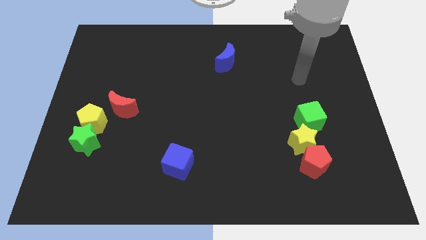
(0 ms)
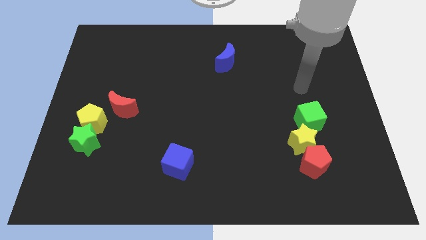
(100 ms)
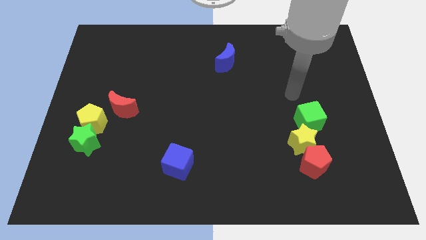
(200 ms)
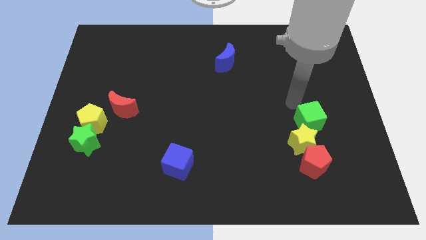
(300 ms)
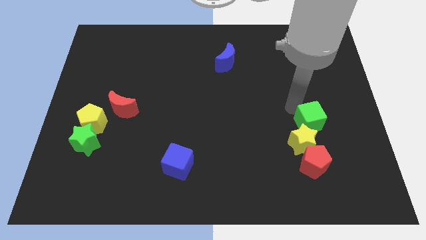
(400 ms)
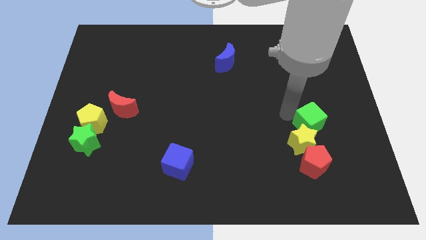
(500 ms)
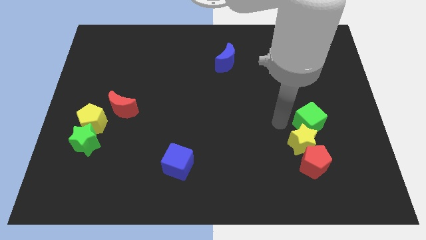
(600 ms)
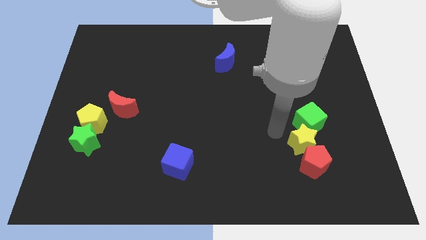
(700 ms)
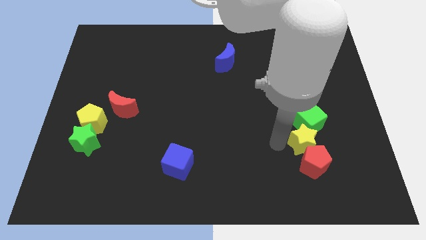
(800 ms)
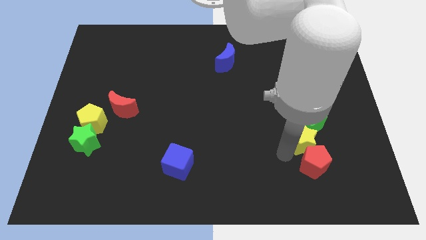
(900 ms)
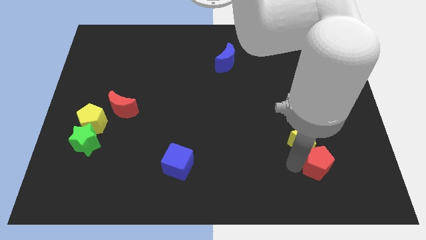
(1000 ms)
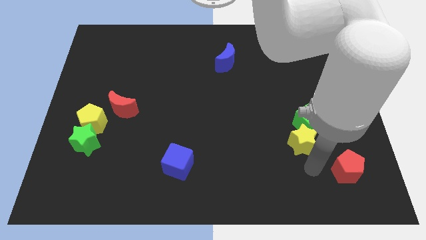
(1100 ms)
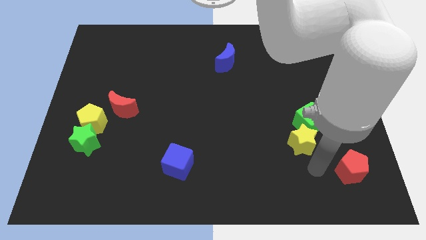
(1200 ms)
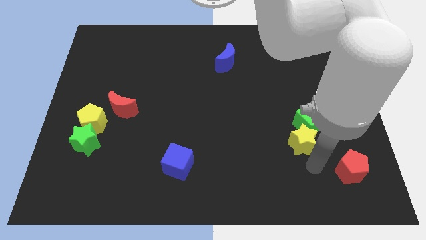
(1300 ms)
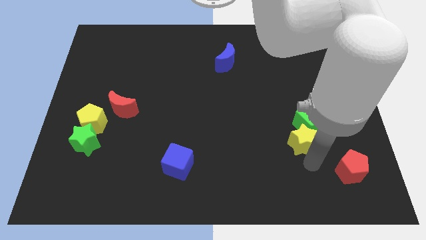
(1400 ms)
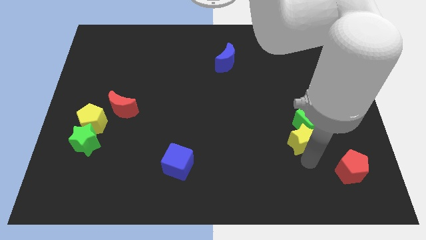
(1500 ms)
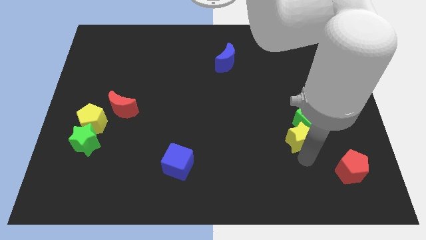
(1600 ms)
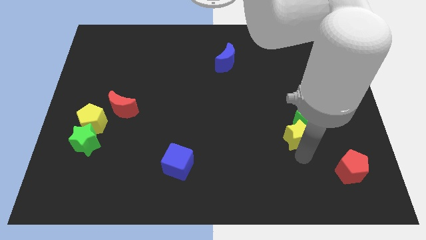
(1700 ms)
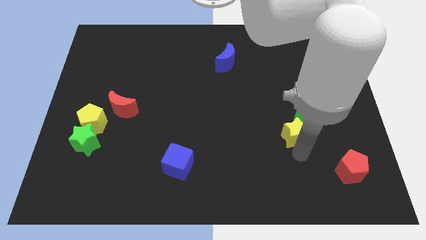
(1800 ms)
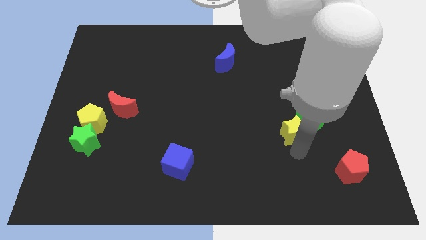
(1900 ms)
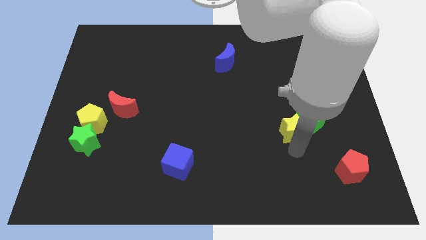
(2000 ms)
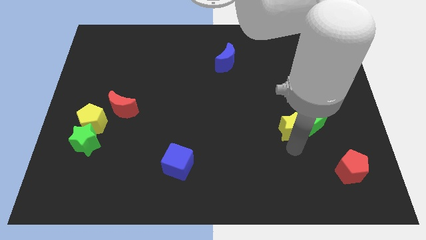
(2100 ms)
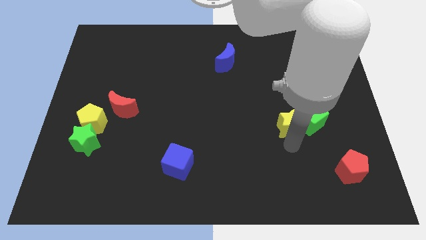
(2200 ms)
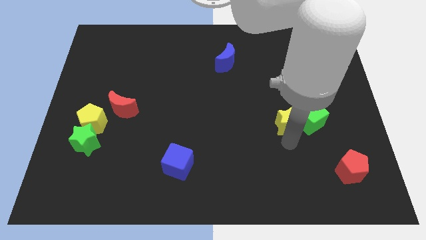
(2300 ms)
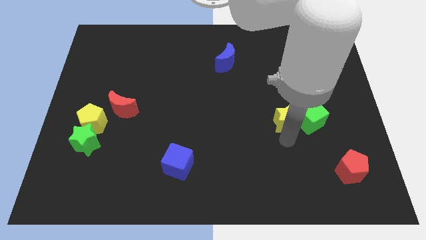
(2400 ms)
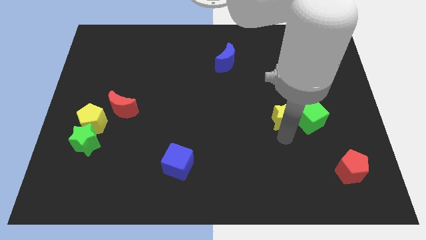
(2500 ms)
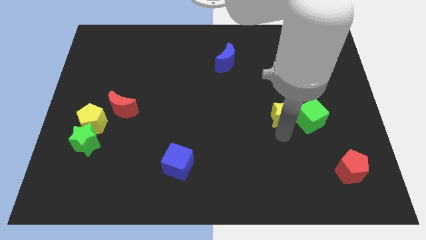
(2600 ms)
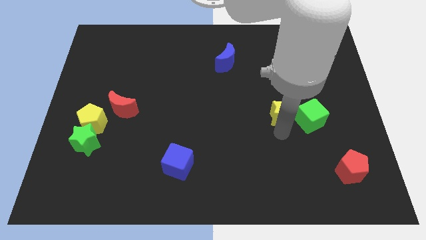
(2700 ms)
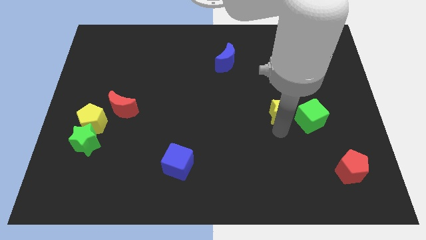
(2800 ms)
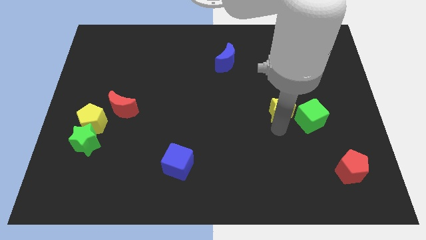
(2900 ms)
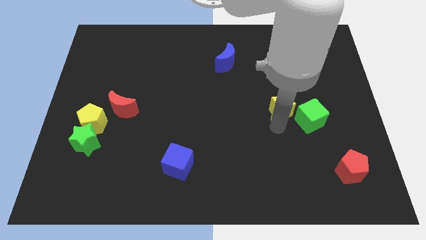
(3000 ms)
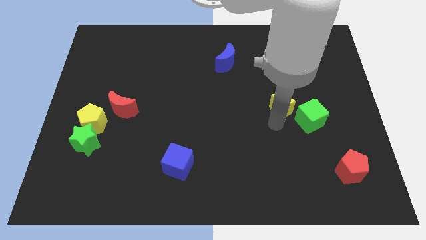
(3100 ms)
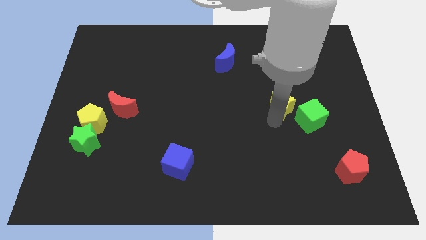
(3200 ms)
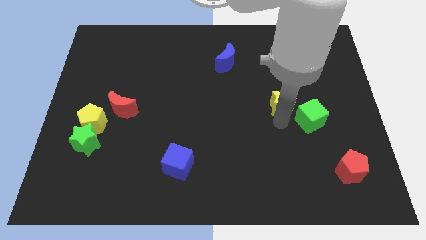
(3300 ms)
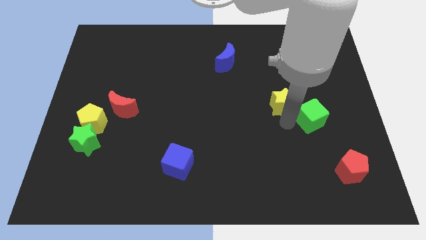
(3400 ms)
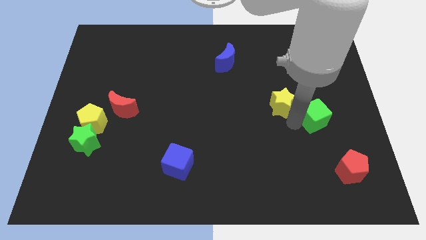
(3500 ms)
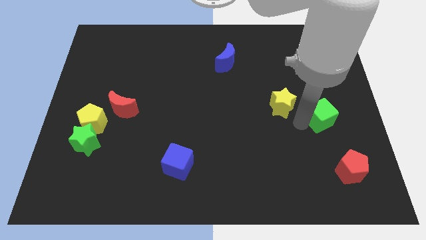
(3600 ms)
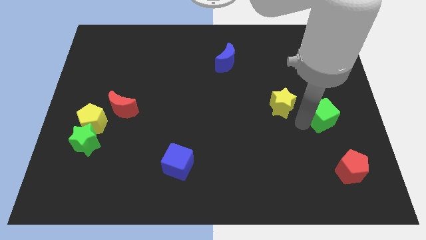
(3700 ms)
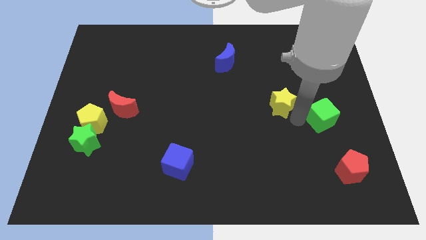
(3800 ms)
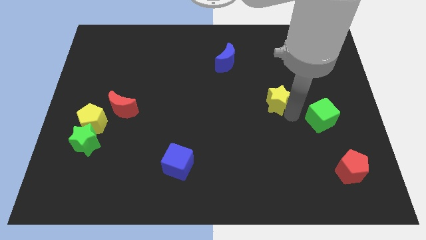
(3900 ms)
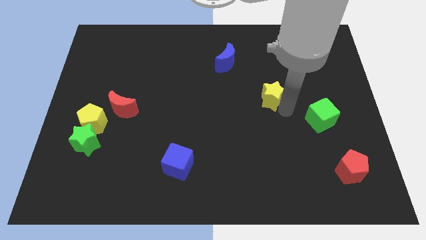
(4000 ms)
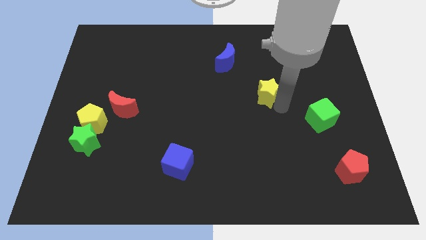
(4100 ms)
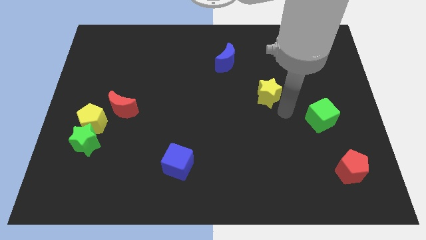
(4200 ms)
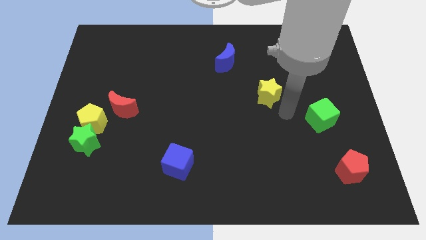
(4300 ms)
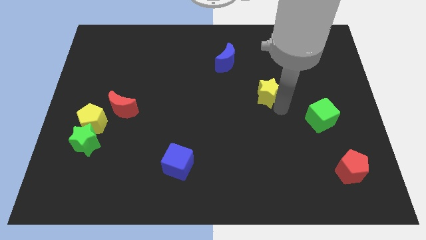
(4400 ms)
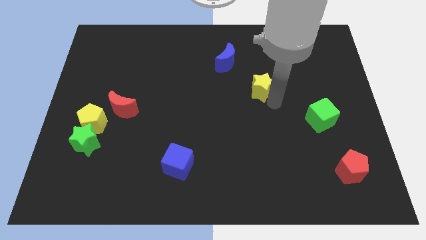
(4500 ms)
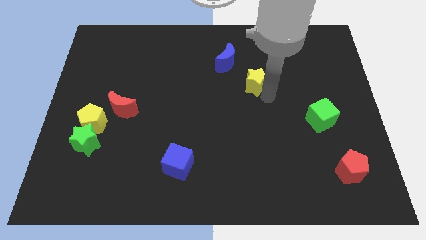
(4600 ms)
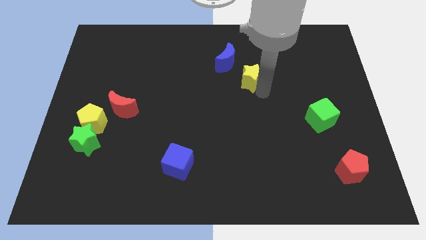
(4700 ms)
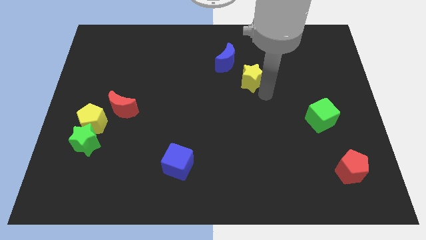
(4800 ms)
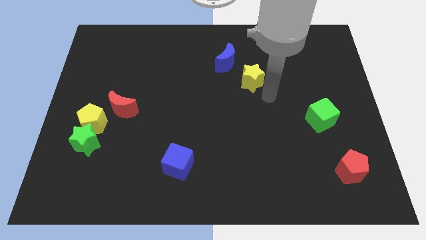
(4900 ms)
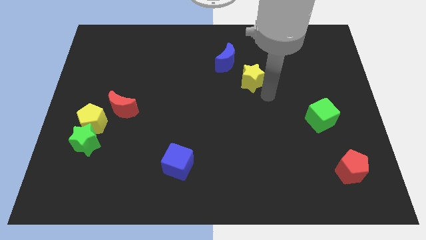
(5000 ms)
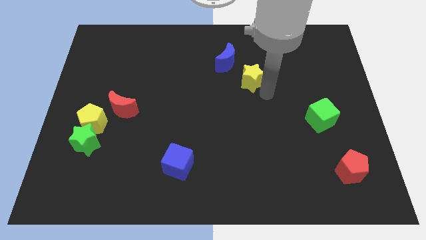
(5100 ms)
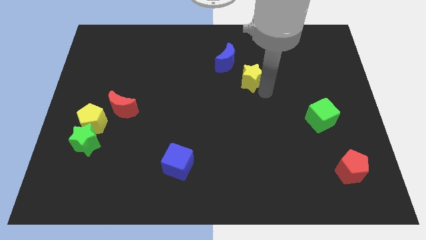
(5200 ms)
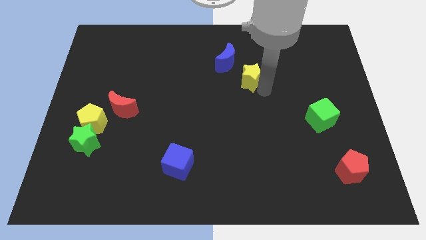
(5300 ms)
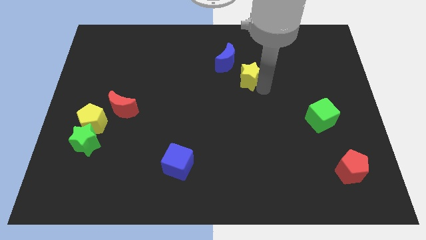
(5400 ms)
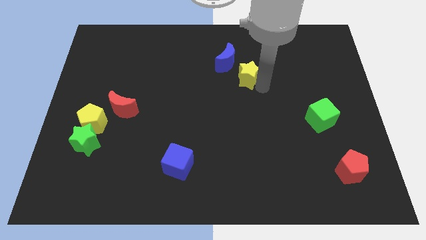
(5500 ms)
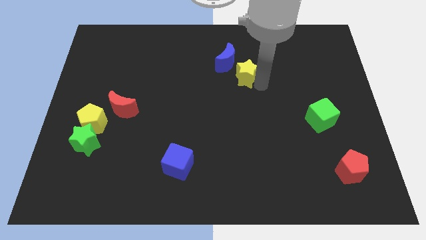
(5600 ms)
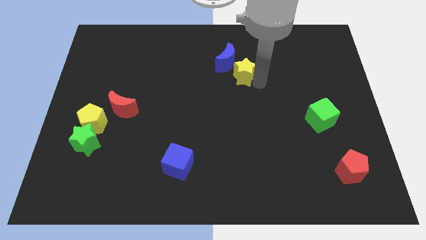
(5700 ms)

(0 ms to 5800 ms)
push the yellow star next to the blue moon

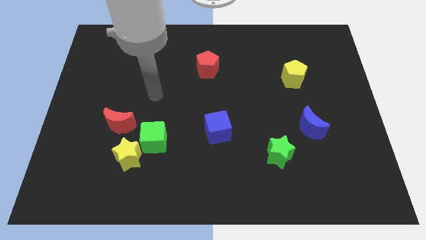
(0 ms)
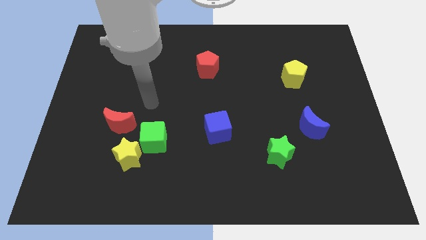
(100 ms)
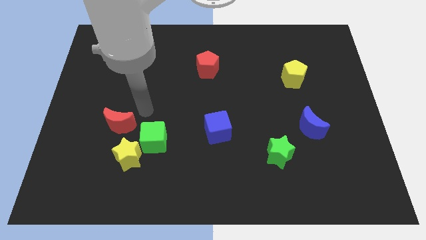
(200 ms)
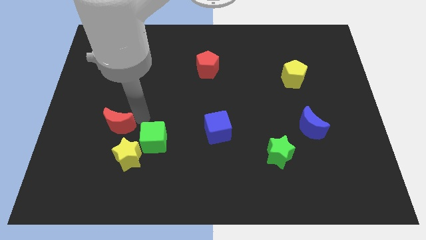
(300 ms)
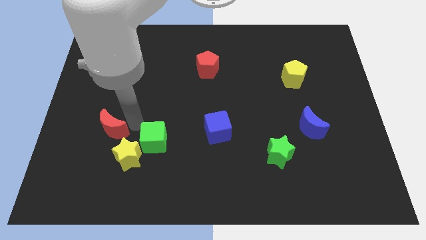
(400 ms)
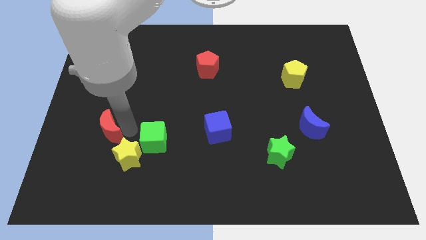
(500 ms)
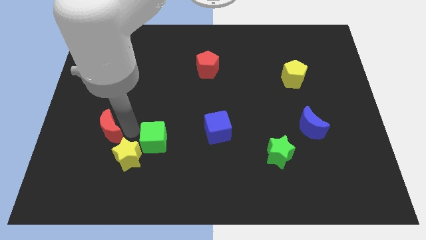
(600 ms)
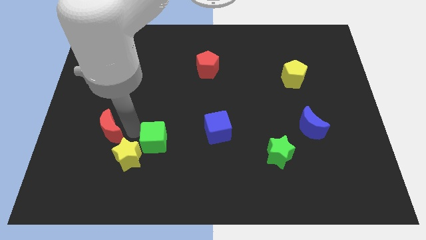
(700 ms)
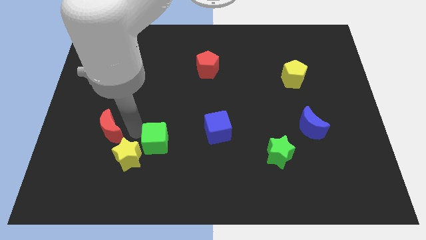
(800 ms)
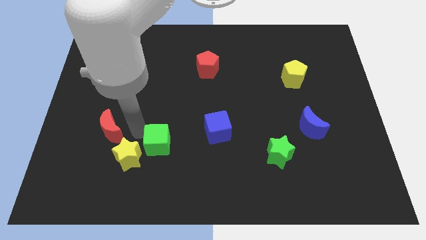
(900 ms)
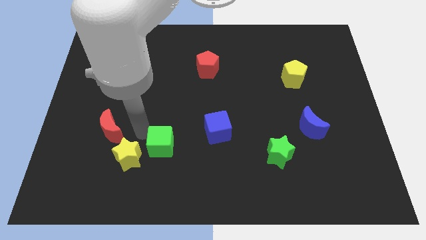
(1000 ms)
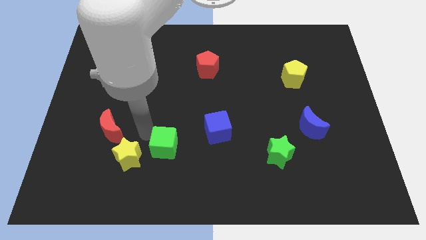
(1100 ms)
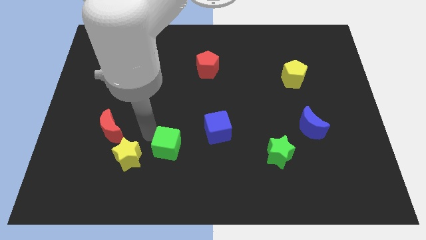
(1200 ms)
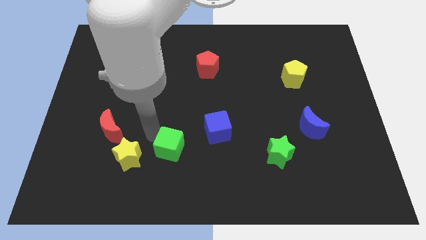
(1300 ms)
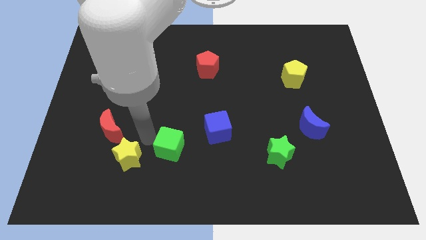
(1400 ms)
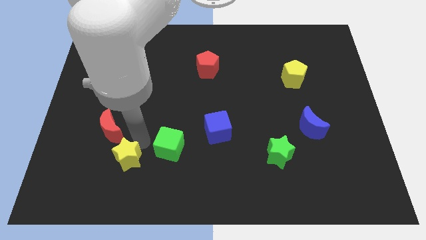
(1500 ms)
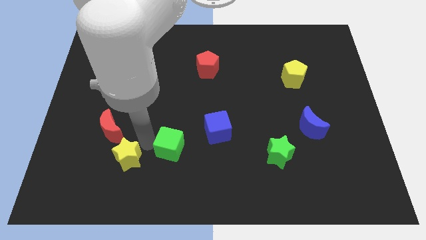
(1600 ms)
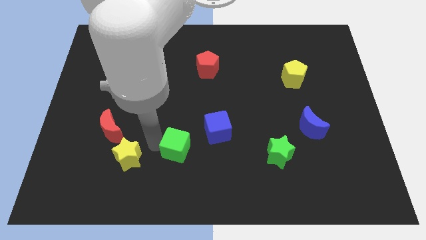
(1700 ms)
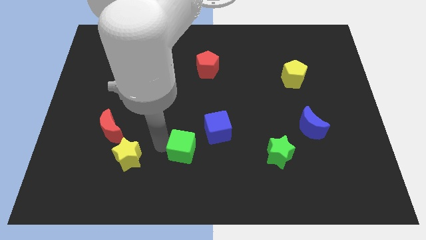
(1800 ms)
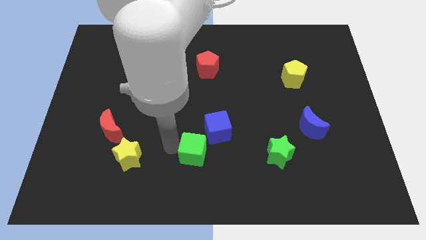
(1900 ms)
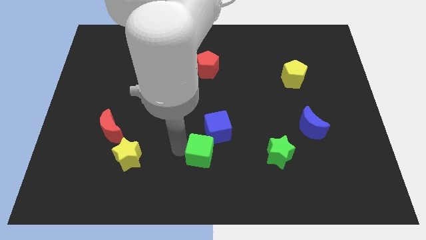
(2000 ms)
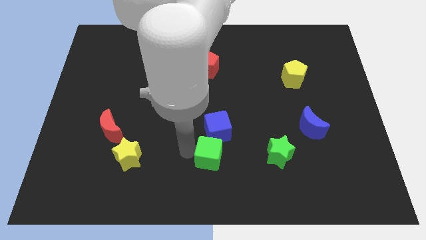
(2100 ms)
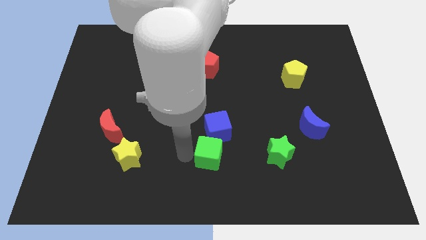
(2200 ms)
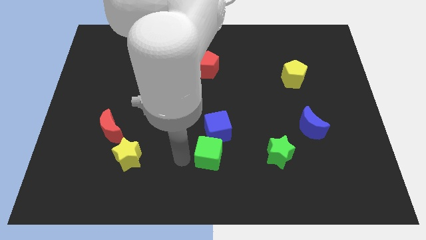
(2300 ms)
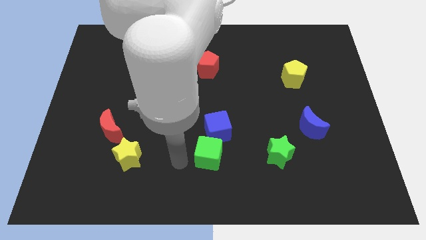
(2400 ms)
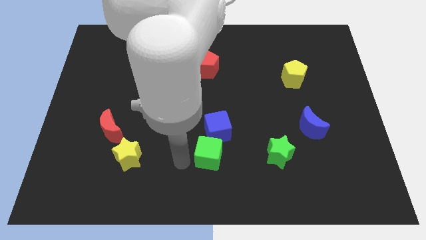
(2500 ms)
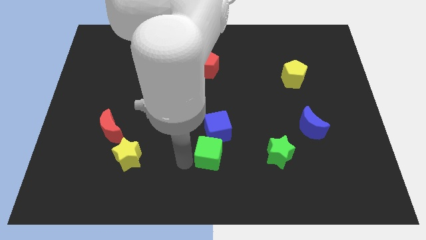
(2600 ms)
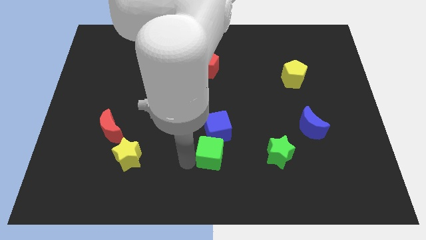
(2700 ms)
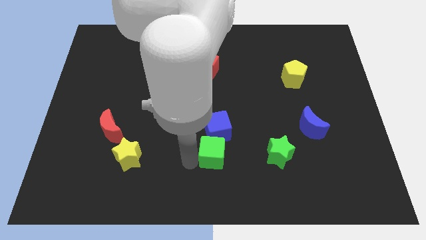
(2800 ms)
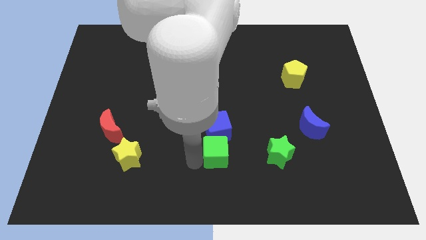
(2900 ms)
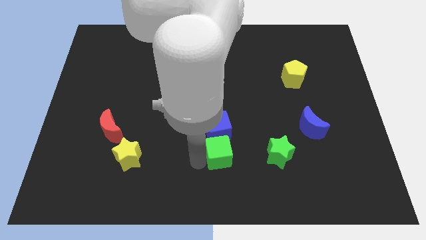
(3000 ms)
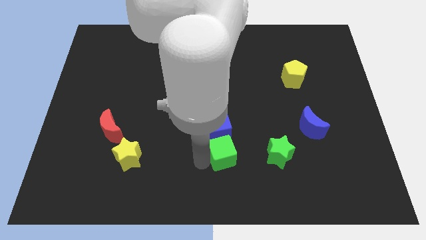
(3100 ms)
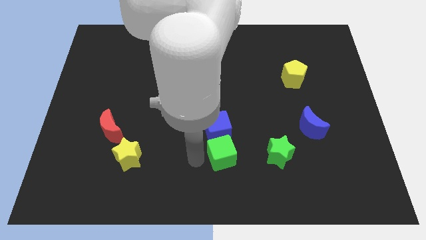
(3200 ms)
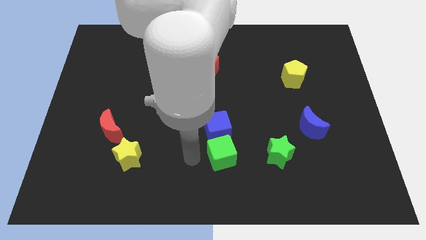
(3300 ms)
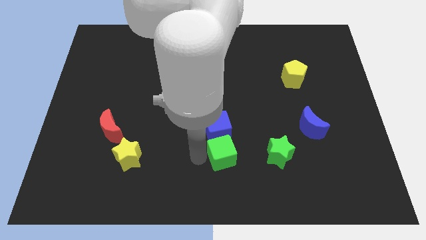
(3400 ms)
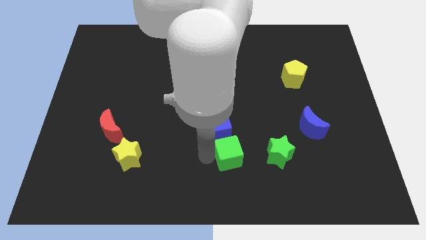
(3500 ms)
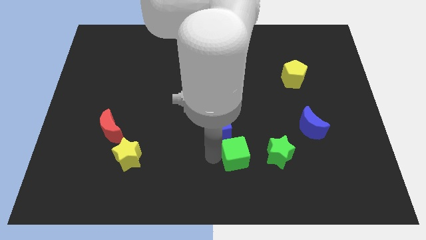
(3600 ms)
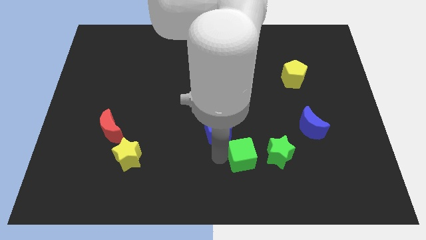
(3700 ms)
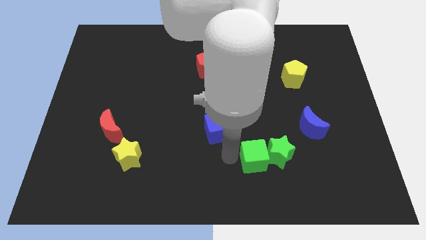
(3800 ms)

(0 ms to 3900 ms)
put the green cube to the green star
